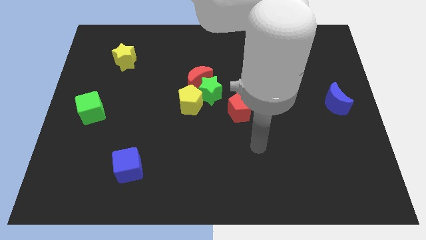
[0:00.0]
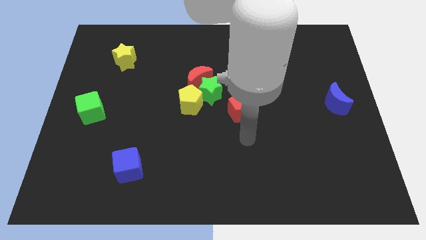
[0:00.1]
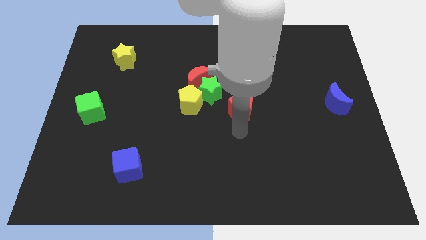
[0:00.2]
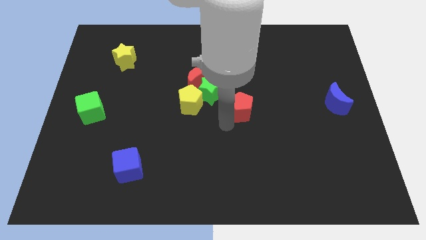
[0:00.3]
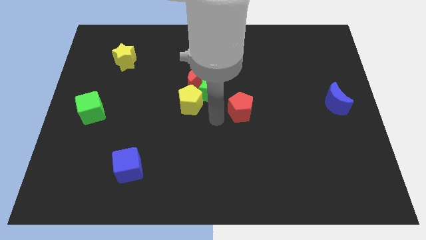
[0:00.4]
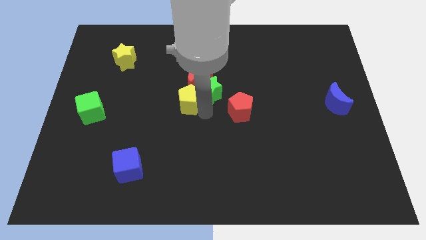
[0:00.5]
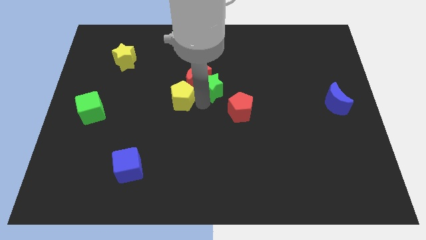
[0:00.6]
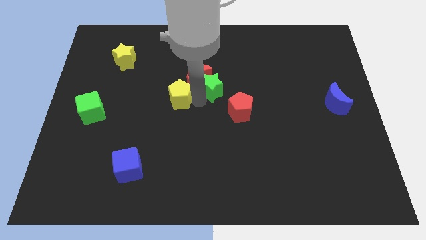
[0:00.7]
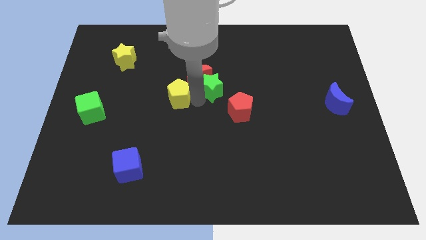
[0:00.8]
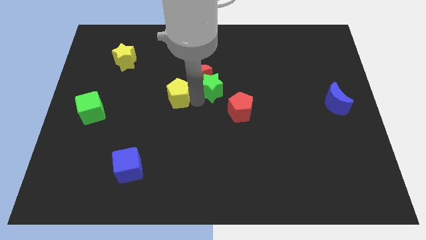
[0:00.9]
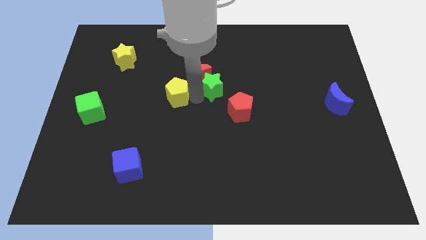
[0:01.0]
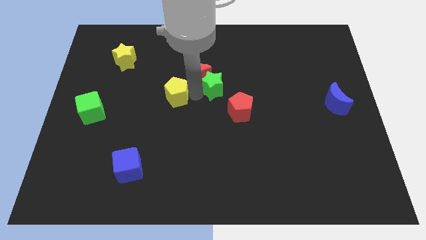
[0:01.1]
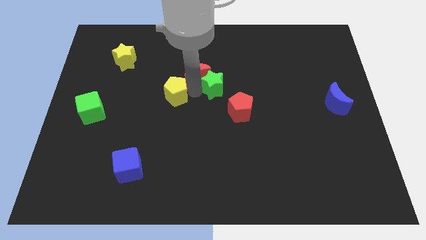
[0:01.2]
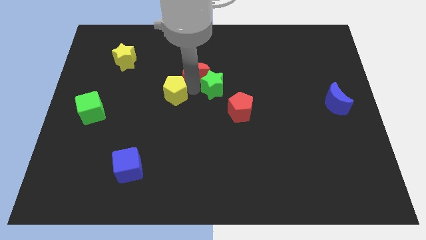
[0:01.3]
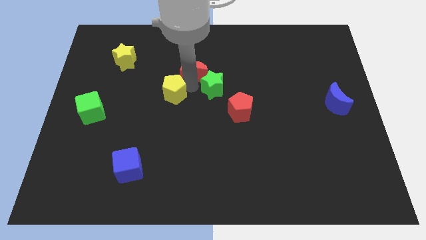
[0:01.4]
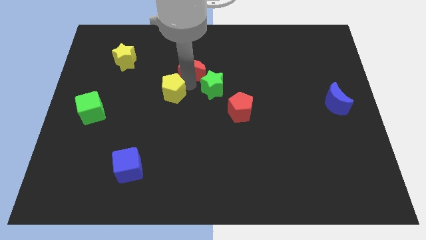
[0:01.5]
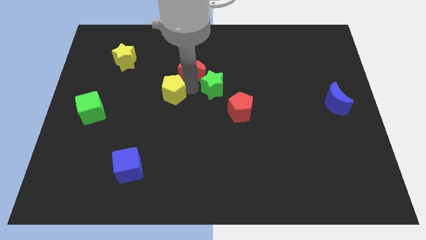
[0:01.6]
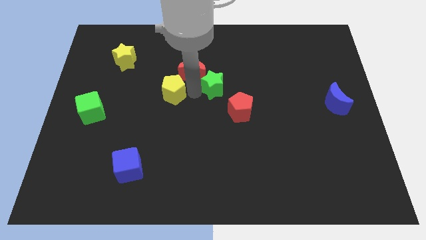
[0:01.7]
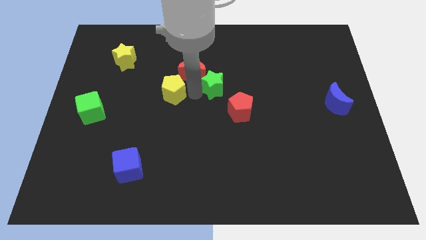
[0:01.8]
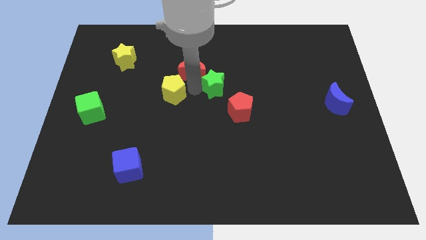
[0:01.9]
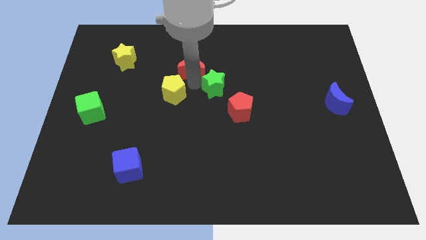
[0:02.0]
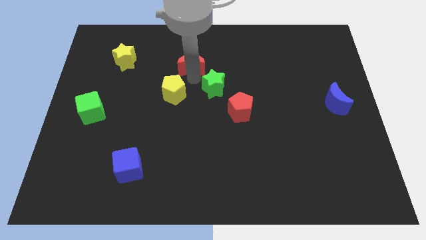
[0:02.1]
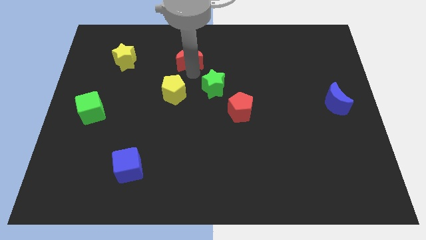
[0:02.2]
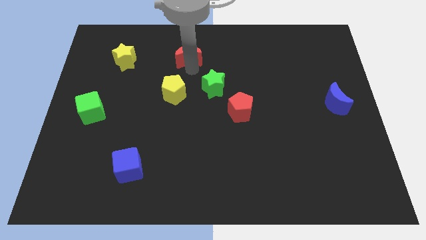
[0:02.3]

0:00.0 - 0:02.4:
separate the red moon from the green star and yellow pentagon

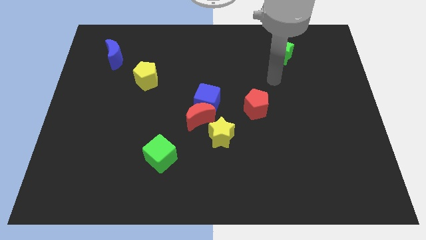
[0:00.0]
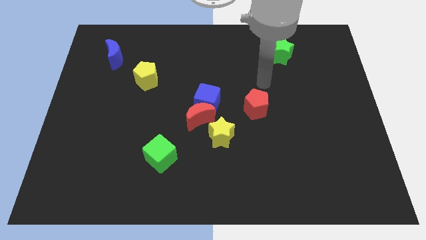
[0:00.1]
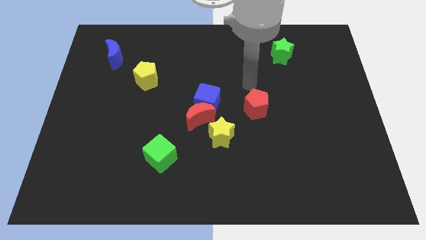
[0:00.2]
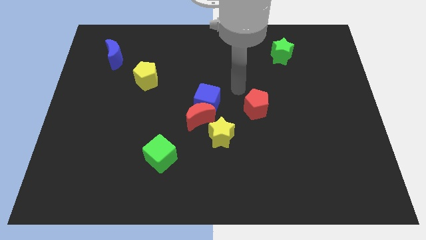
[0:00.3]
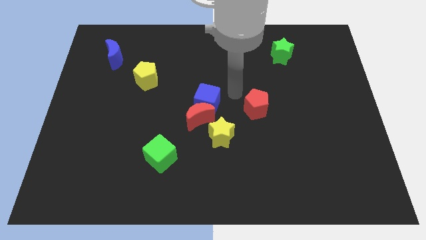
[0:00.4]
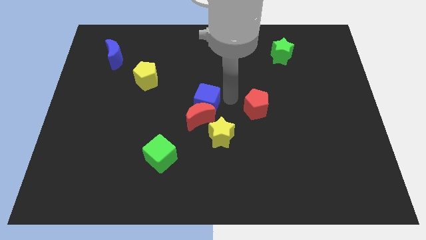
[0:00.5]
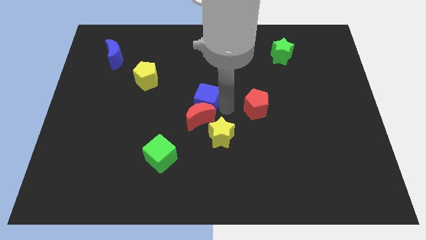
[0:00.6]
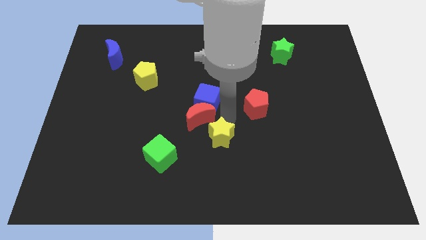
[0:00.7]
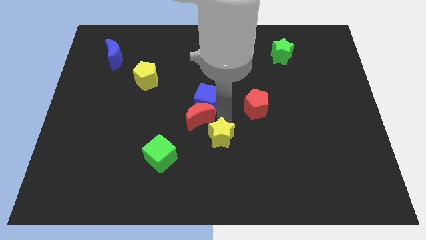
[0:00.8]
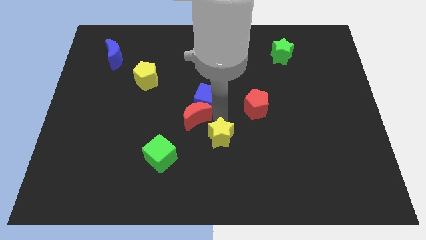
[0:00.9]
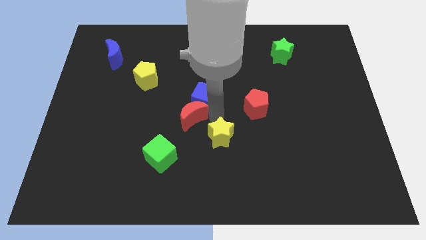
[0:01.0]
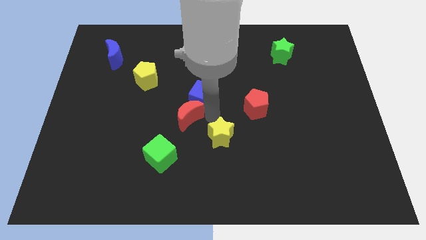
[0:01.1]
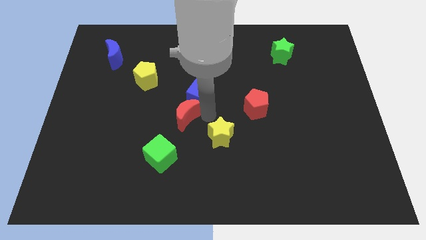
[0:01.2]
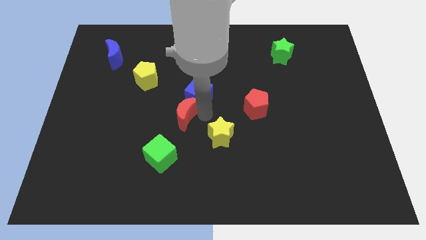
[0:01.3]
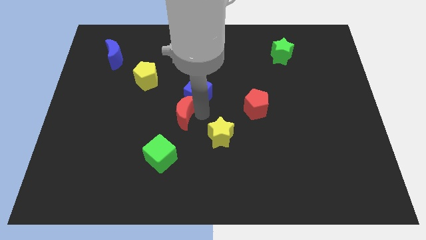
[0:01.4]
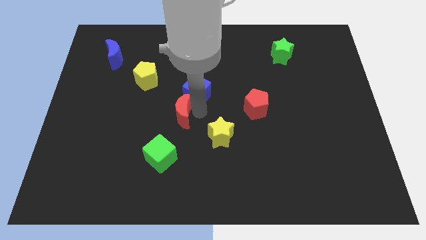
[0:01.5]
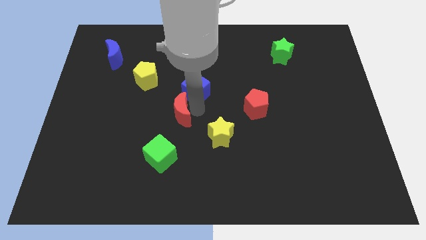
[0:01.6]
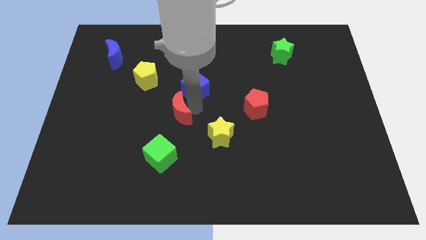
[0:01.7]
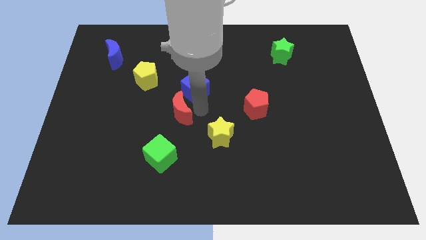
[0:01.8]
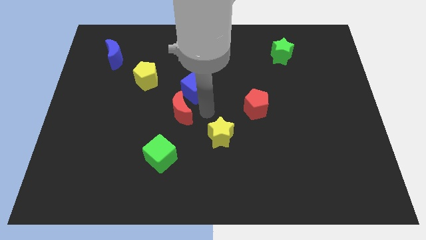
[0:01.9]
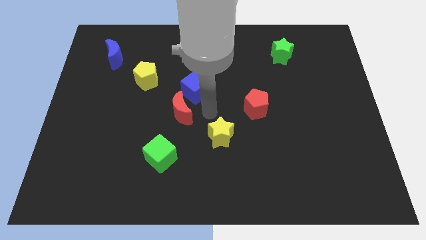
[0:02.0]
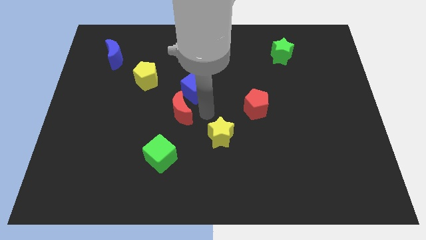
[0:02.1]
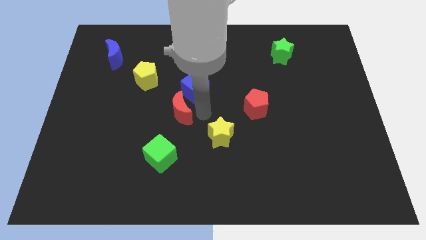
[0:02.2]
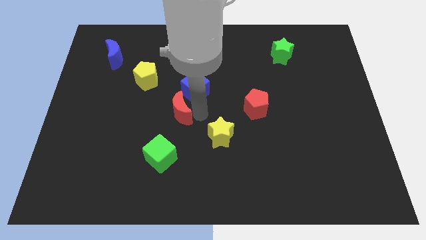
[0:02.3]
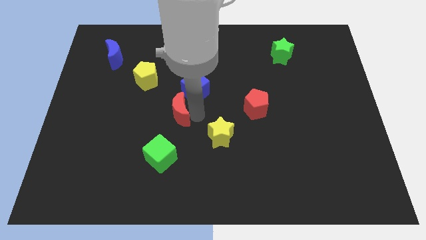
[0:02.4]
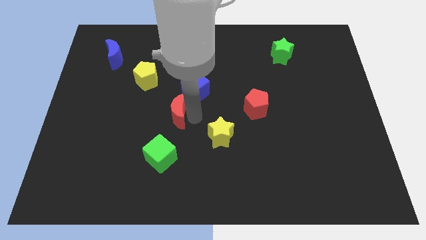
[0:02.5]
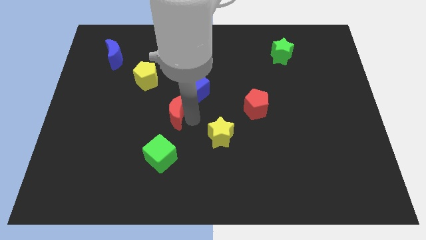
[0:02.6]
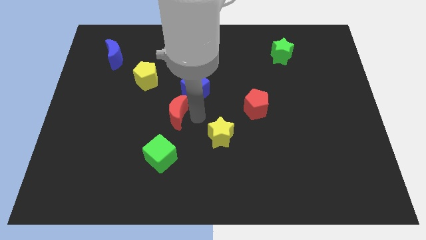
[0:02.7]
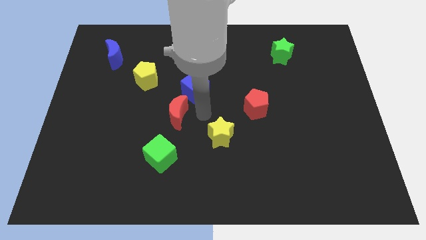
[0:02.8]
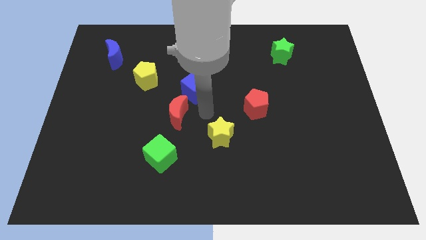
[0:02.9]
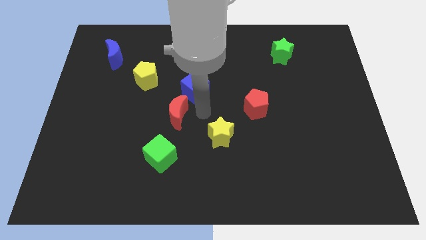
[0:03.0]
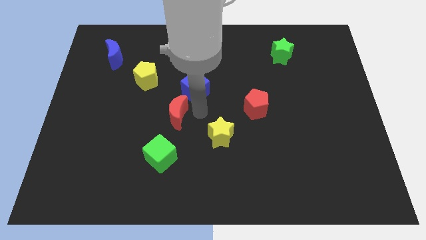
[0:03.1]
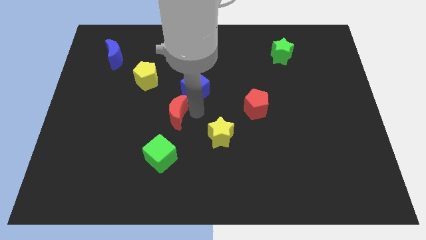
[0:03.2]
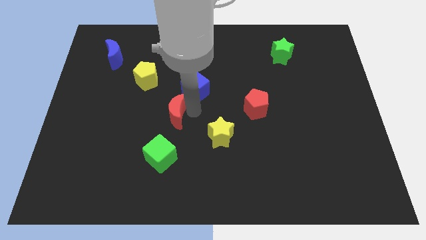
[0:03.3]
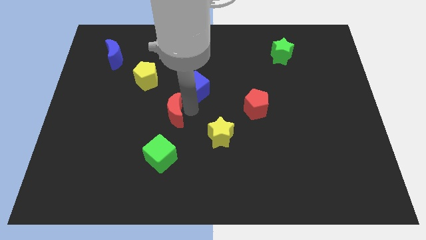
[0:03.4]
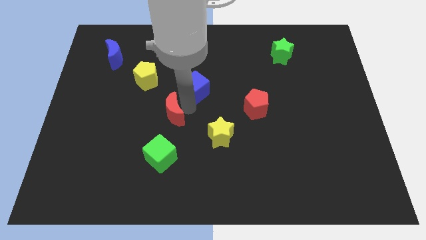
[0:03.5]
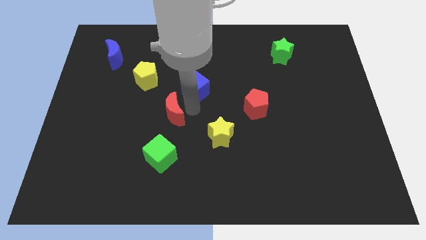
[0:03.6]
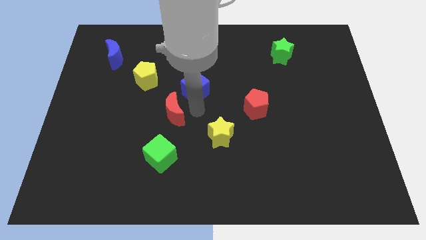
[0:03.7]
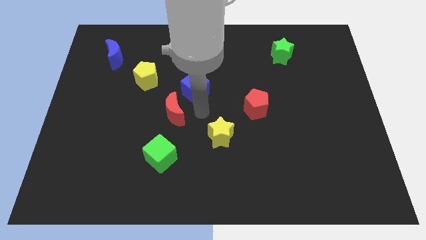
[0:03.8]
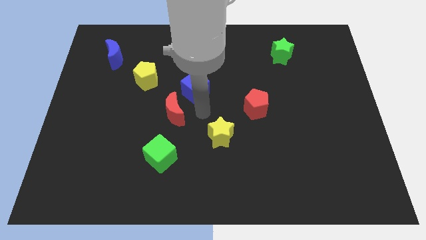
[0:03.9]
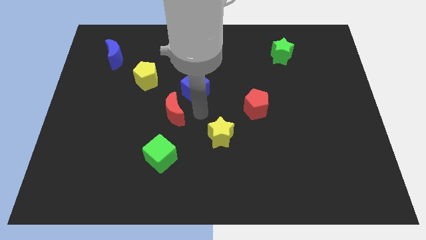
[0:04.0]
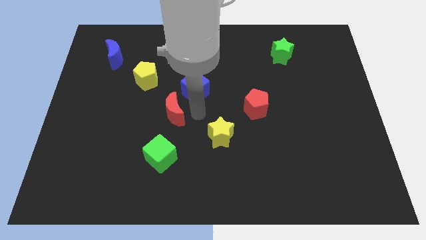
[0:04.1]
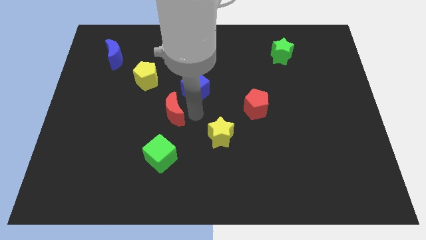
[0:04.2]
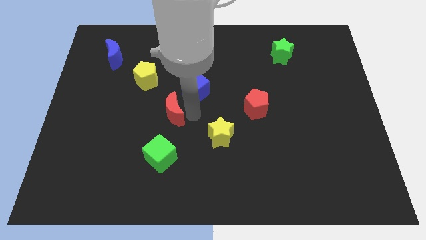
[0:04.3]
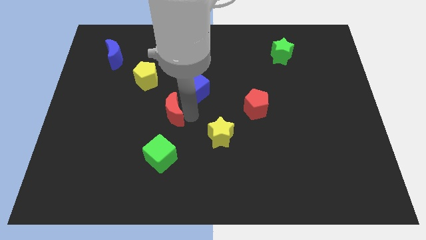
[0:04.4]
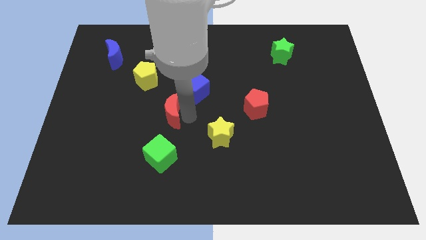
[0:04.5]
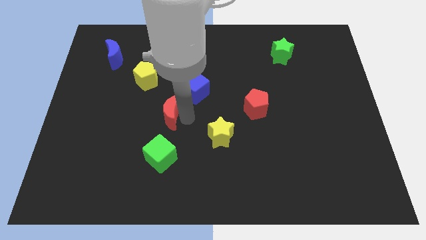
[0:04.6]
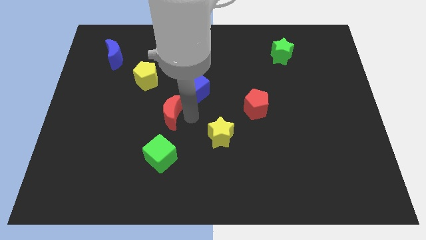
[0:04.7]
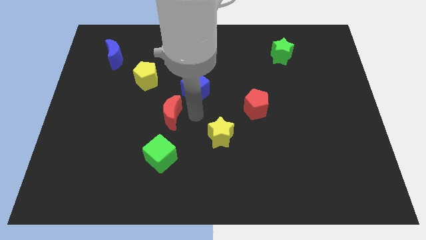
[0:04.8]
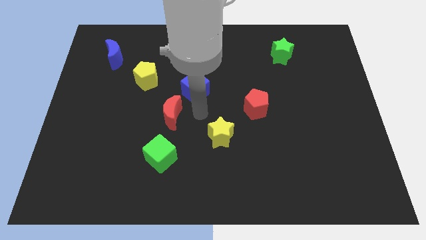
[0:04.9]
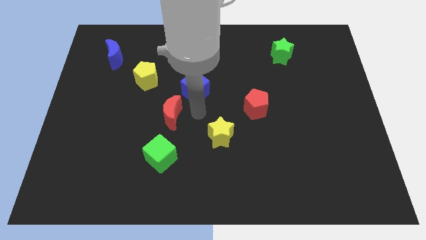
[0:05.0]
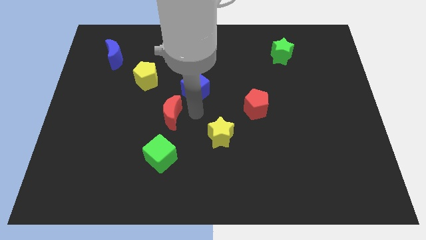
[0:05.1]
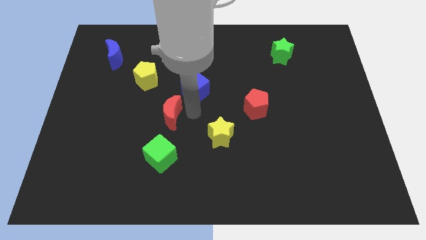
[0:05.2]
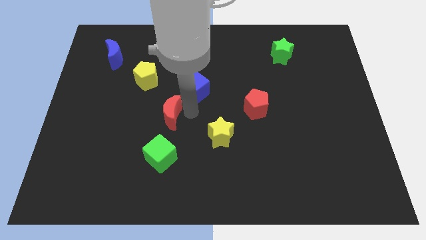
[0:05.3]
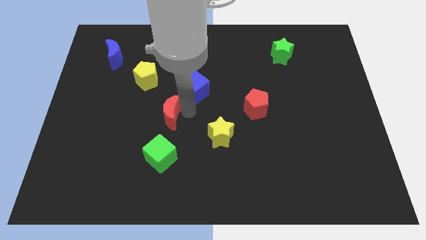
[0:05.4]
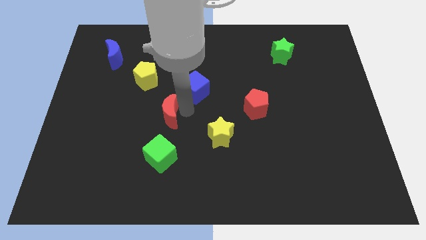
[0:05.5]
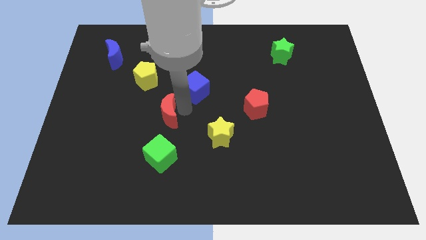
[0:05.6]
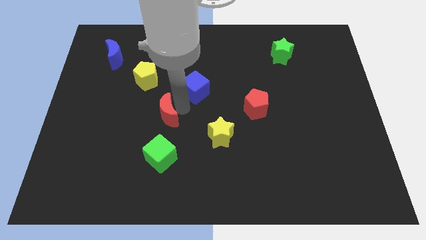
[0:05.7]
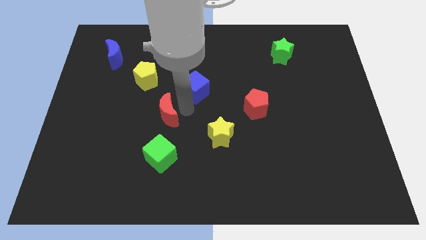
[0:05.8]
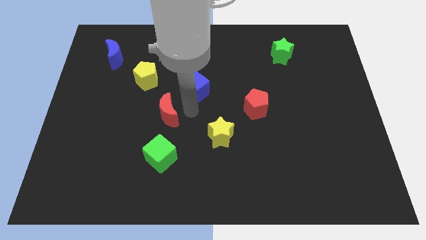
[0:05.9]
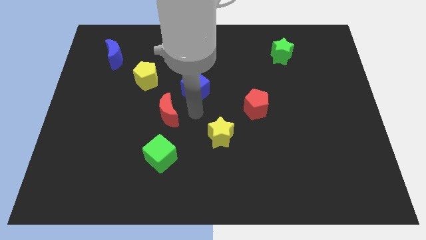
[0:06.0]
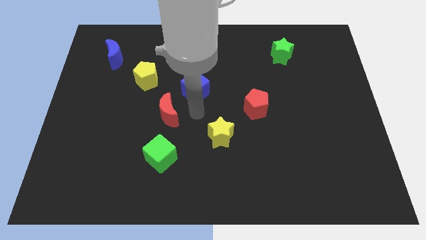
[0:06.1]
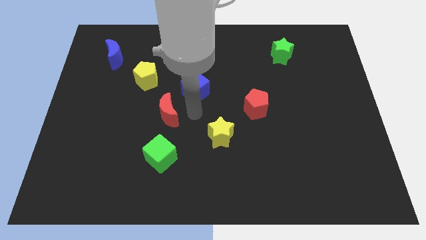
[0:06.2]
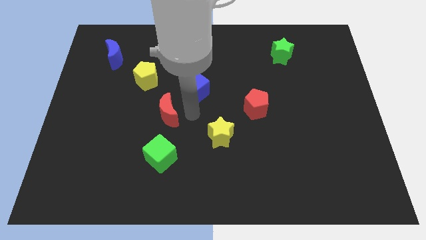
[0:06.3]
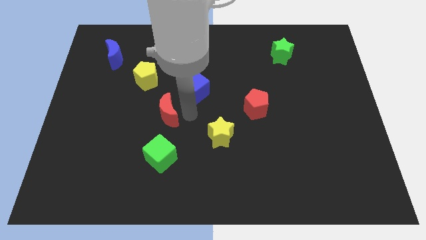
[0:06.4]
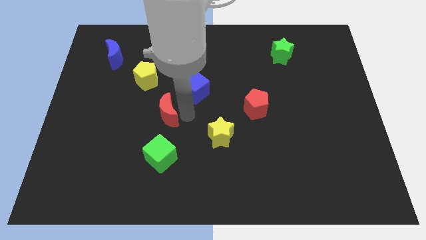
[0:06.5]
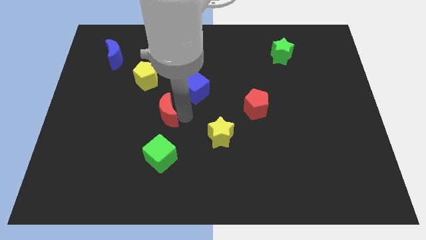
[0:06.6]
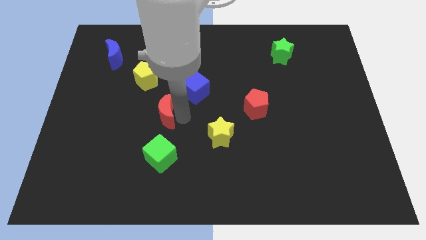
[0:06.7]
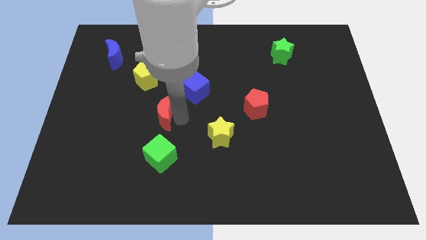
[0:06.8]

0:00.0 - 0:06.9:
separate the red moon from the blue cube and yellow star

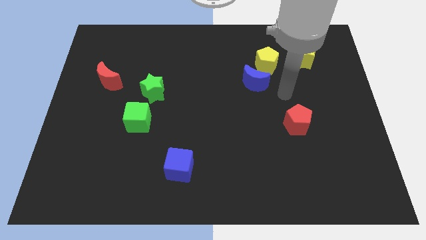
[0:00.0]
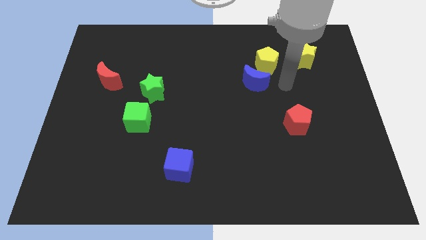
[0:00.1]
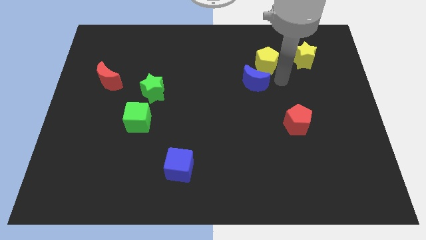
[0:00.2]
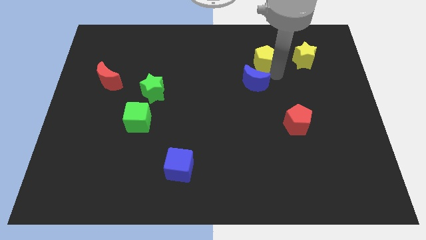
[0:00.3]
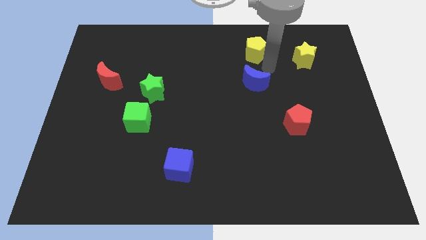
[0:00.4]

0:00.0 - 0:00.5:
pull the blue moon apart from the yellow pentagon
